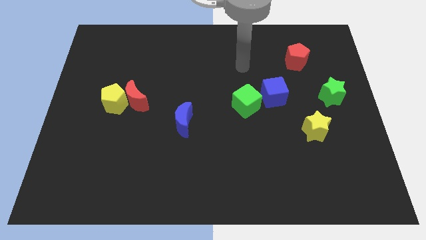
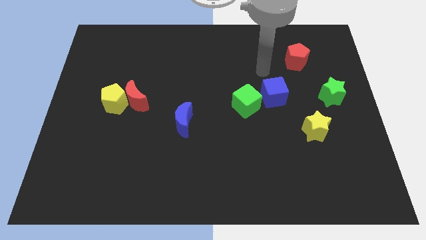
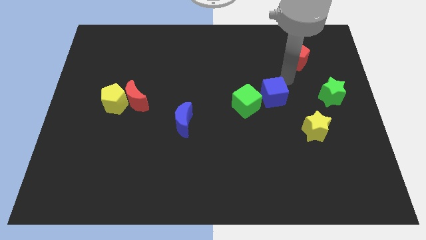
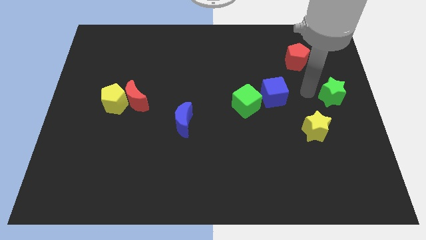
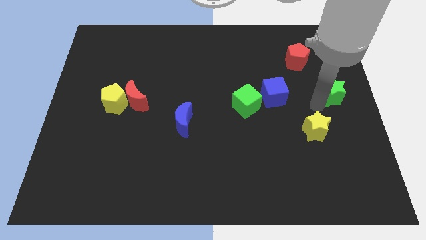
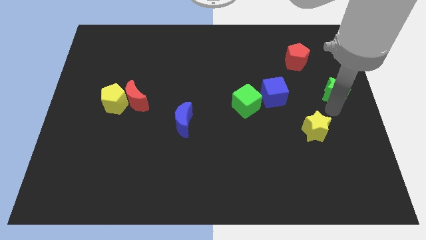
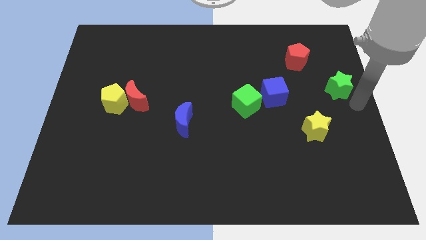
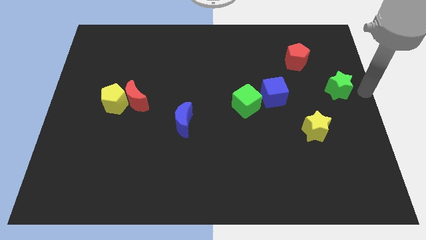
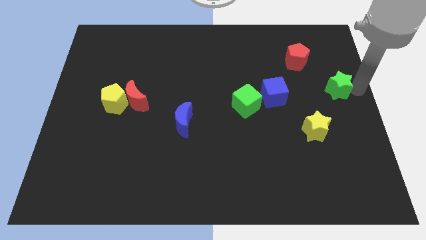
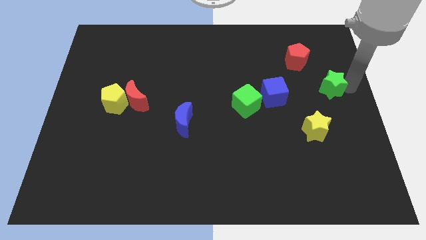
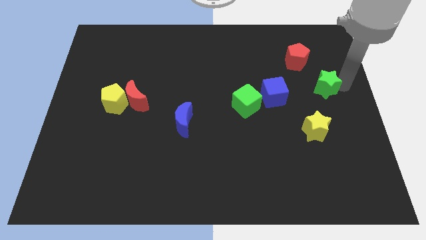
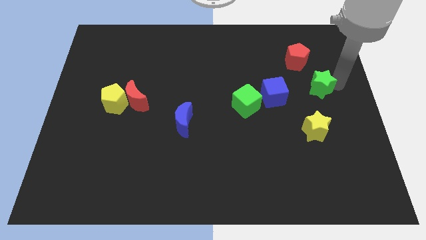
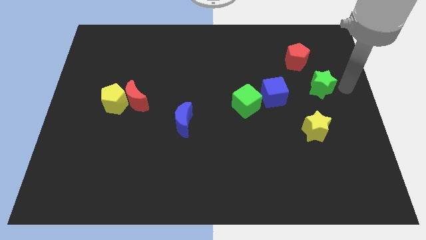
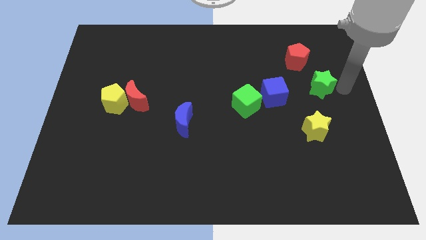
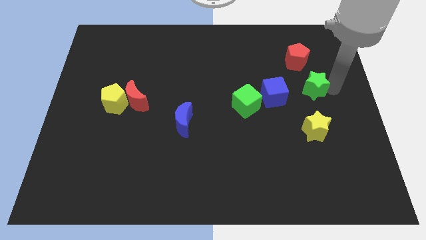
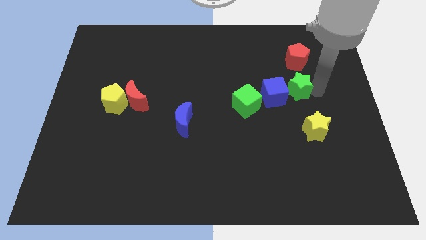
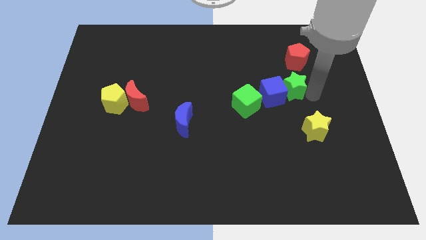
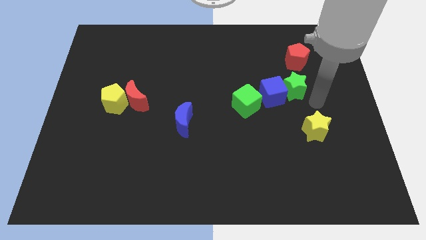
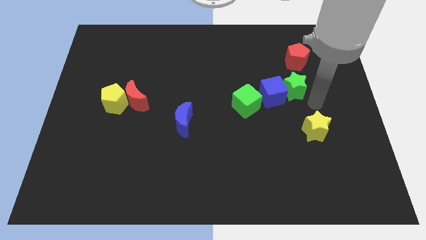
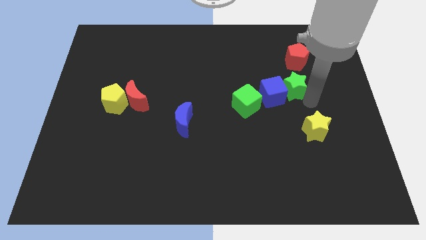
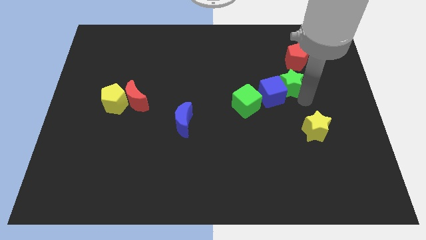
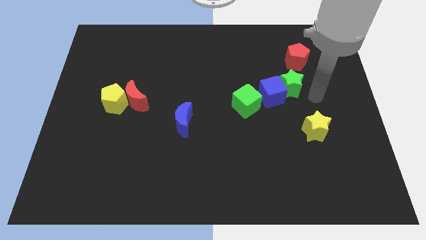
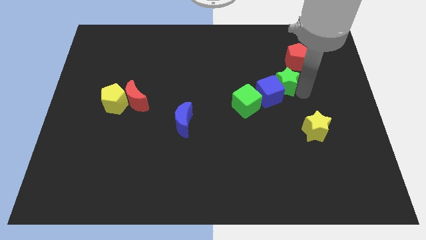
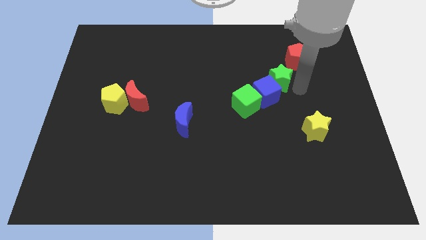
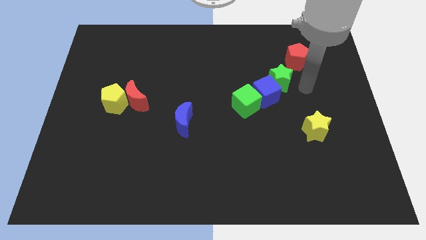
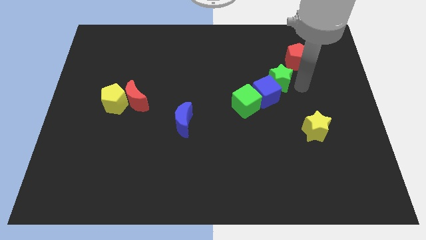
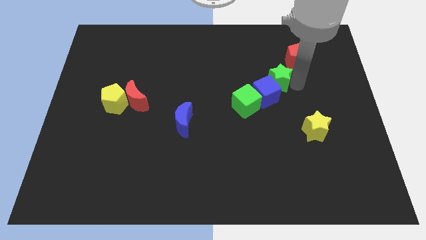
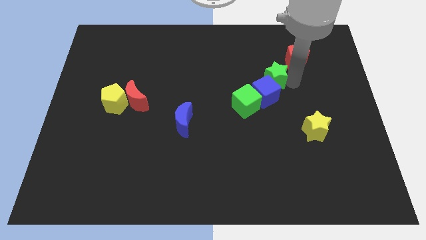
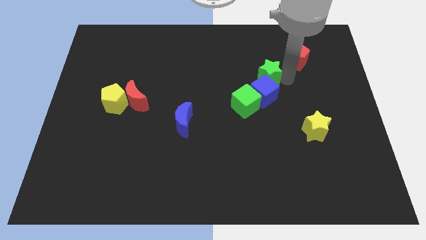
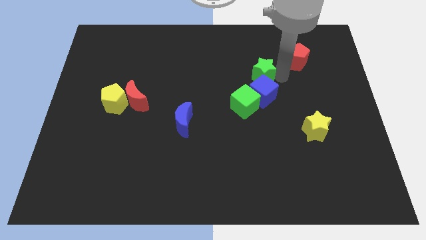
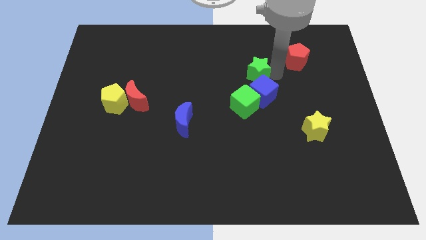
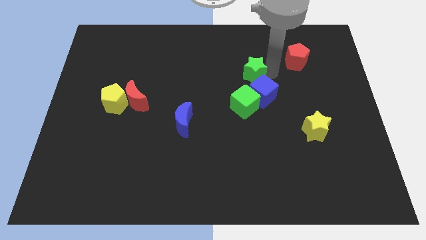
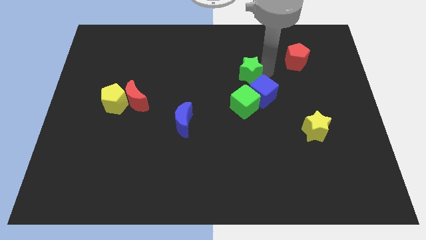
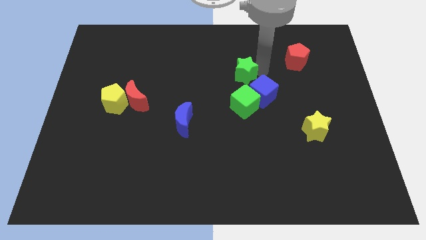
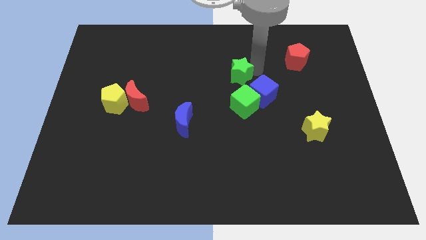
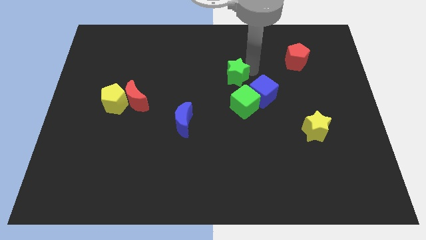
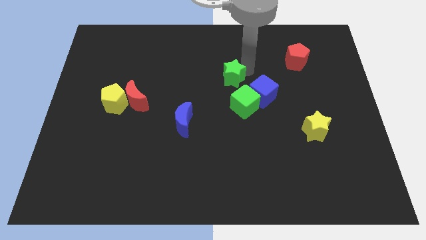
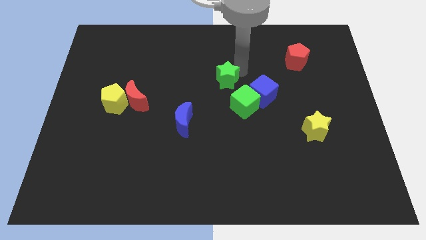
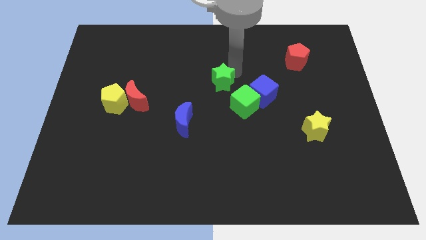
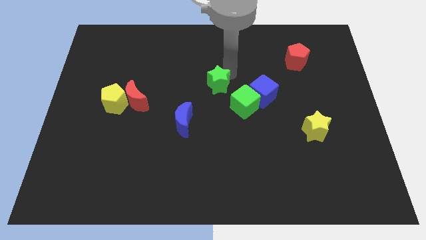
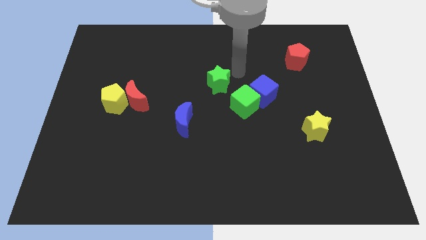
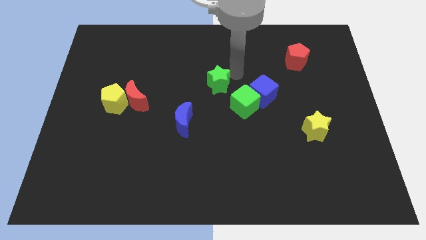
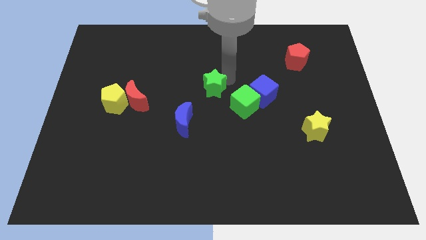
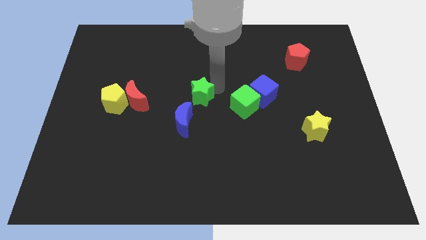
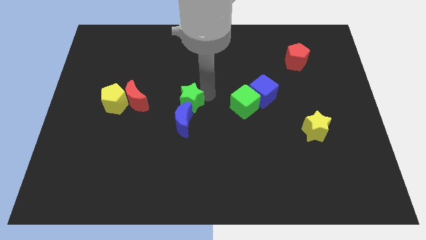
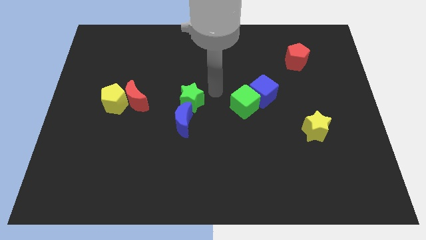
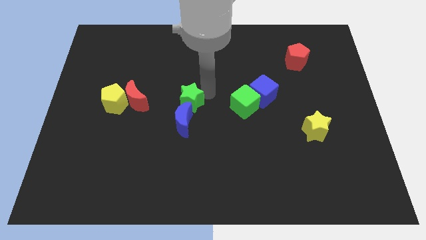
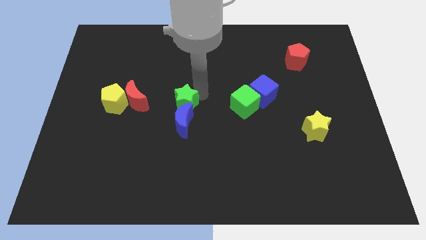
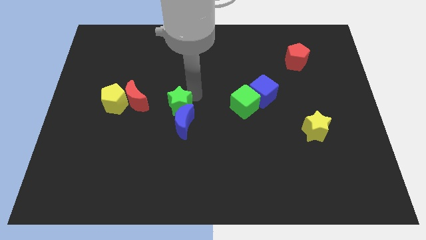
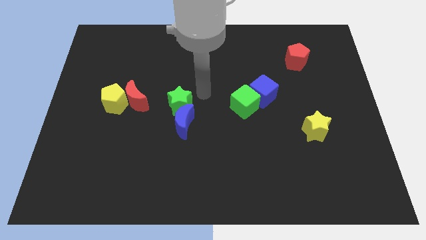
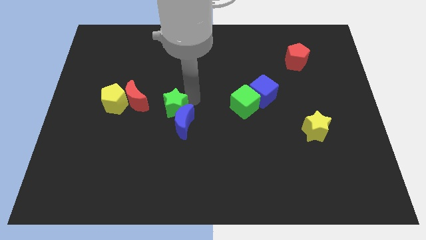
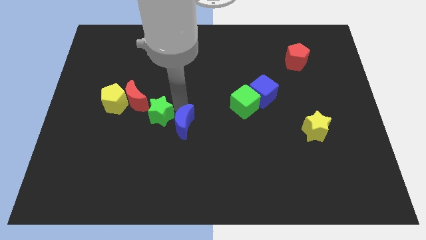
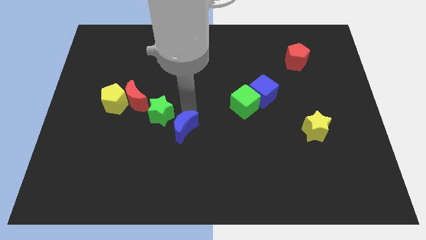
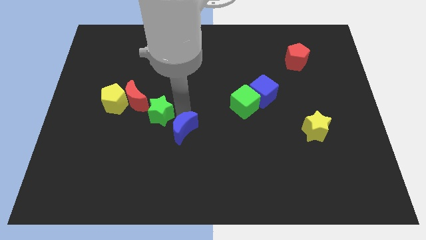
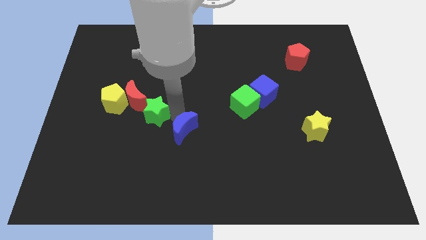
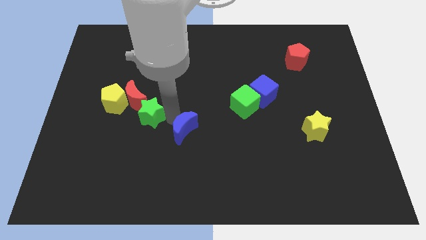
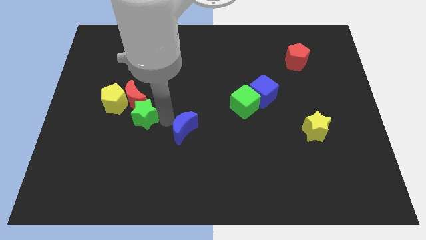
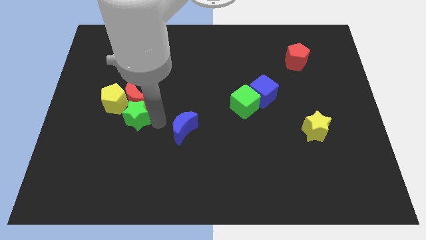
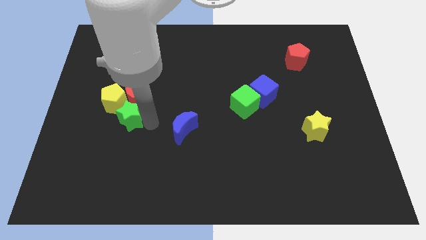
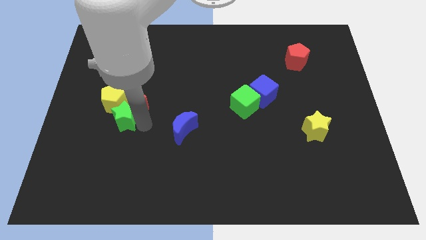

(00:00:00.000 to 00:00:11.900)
move the green star next to the yellow pentagon

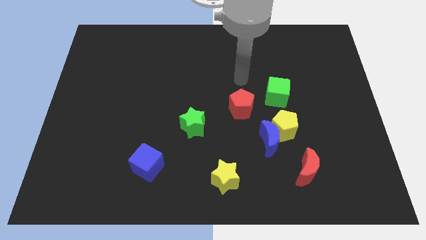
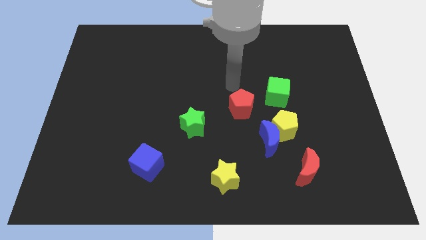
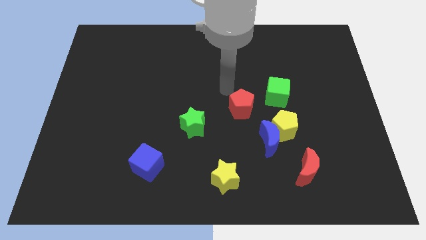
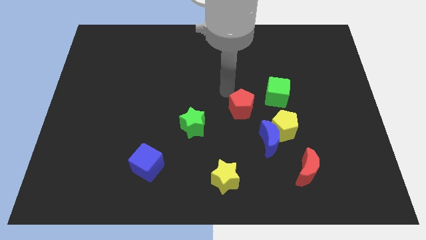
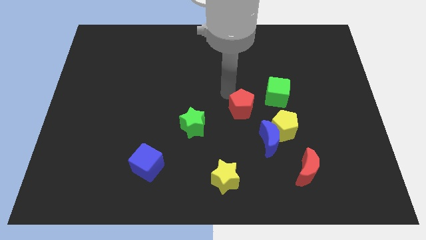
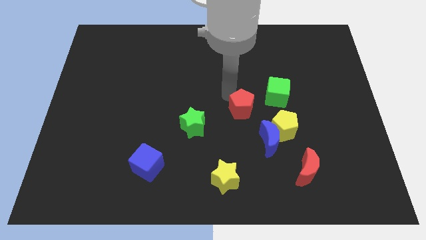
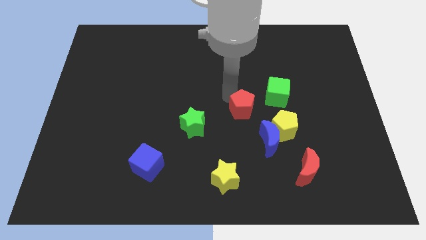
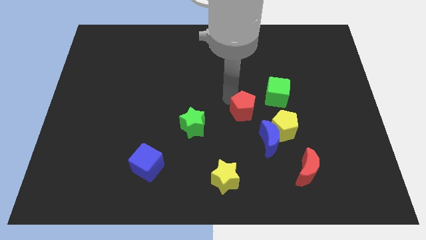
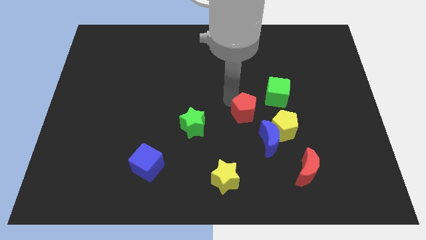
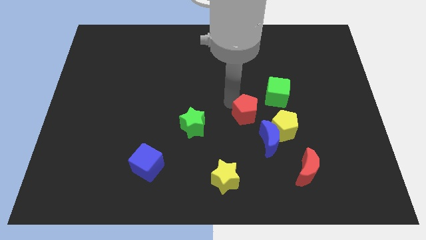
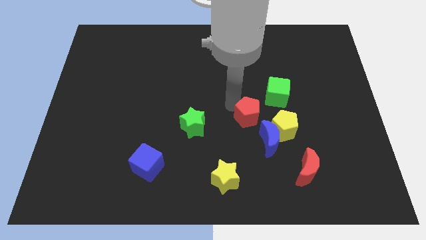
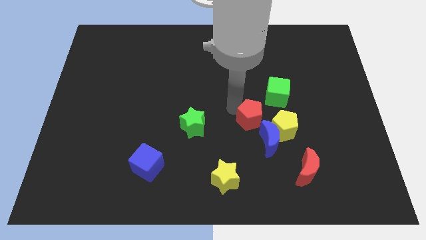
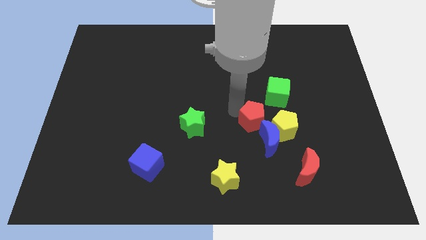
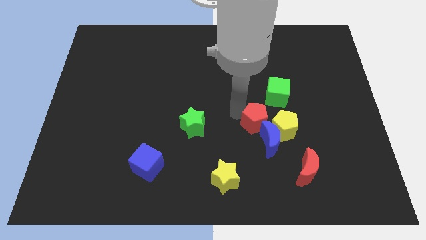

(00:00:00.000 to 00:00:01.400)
put the red pentagon next to the blue moon
